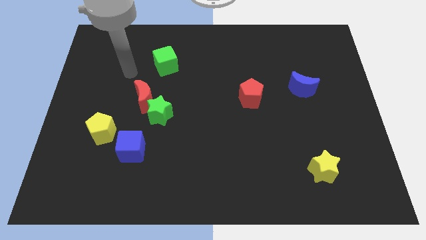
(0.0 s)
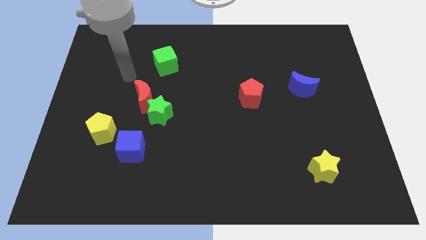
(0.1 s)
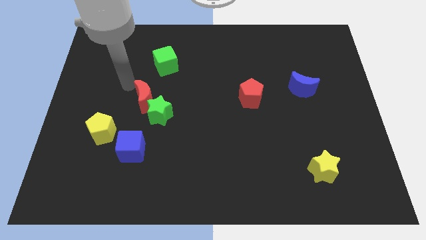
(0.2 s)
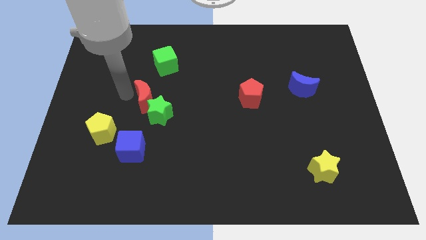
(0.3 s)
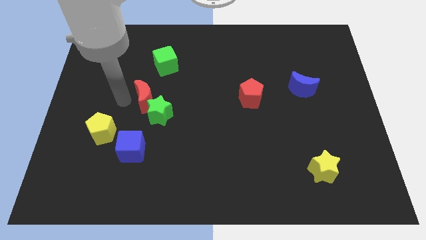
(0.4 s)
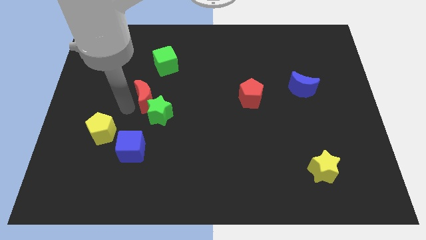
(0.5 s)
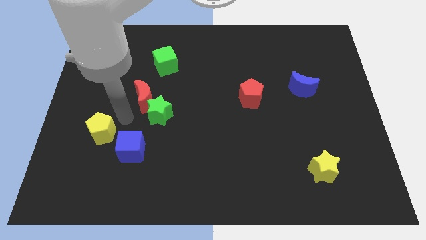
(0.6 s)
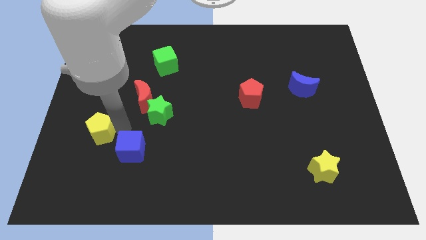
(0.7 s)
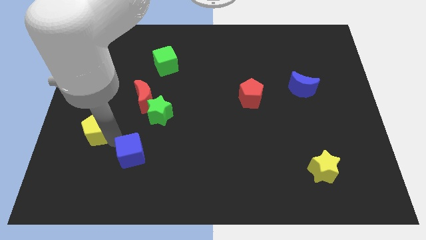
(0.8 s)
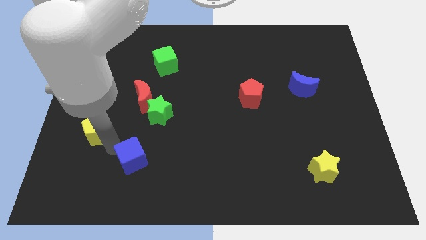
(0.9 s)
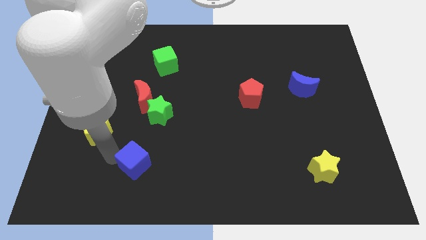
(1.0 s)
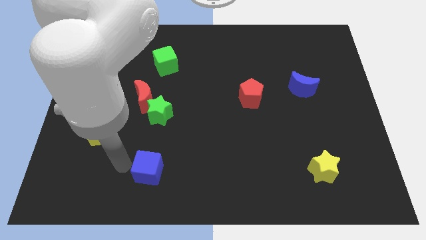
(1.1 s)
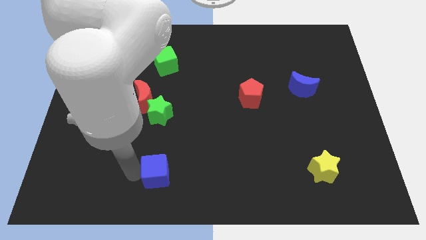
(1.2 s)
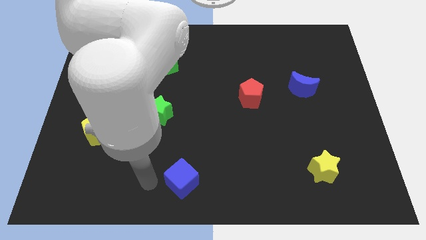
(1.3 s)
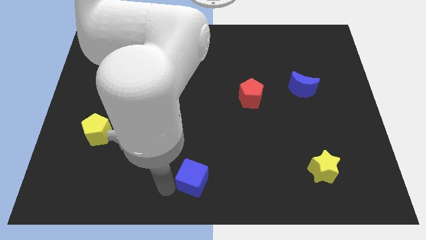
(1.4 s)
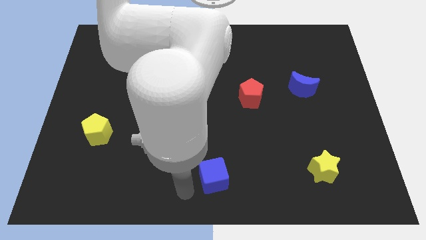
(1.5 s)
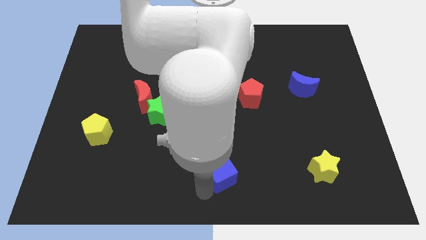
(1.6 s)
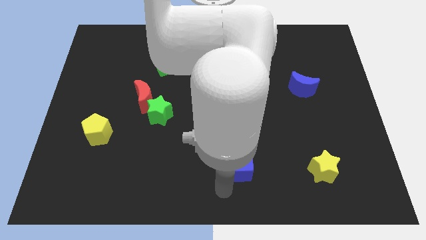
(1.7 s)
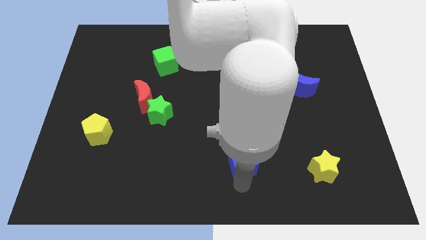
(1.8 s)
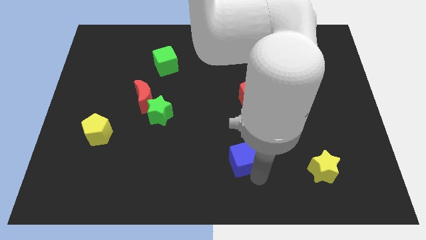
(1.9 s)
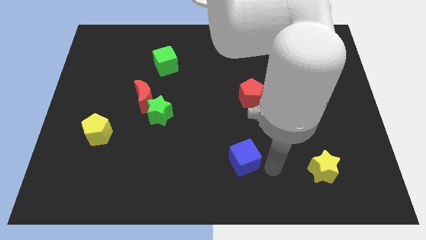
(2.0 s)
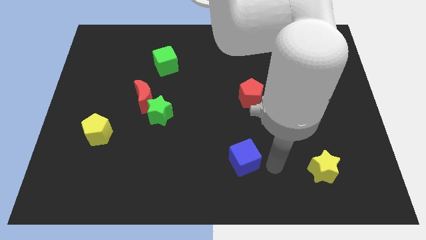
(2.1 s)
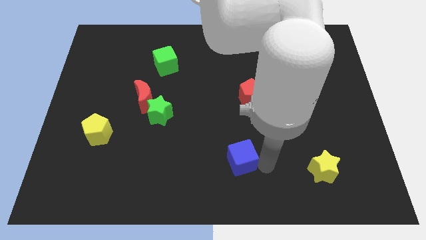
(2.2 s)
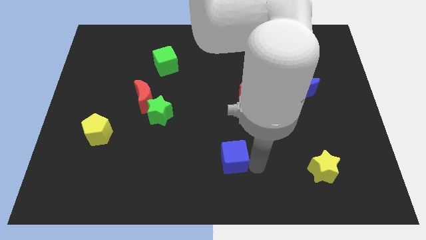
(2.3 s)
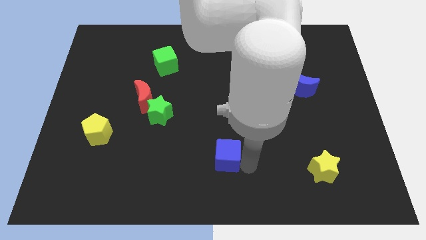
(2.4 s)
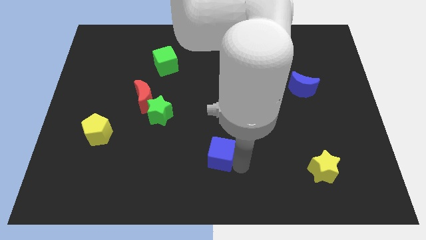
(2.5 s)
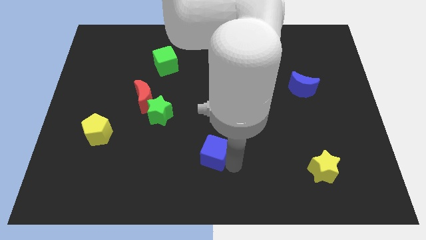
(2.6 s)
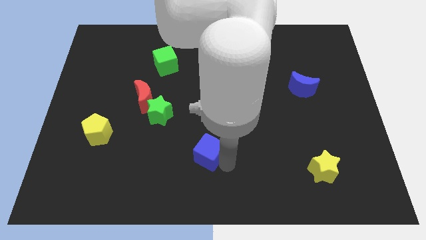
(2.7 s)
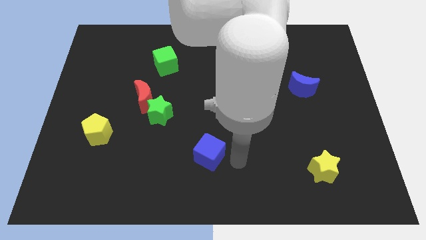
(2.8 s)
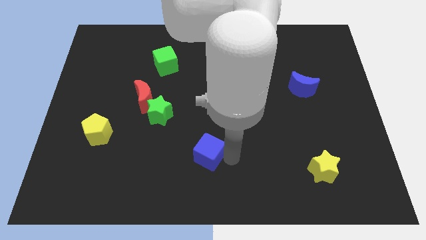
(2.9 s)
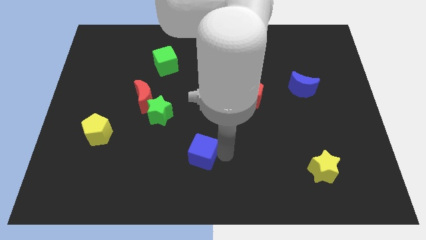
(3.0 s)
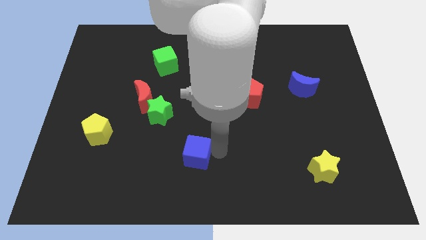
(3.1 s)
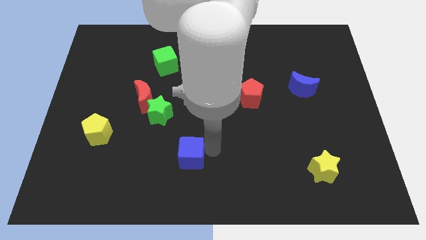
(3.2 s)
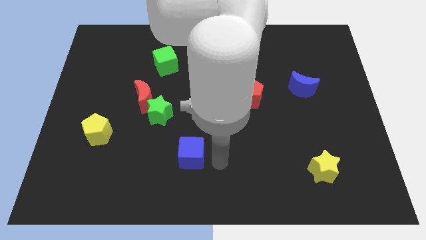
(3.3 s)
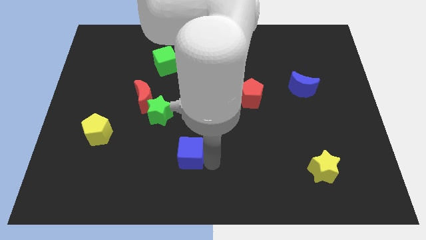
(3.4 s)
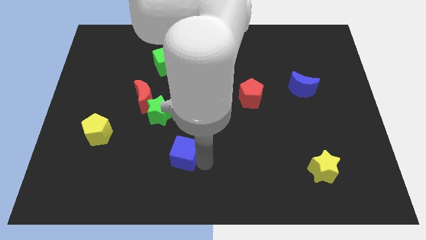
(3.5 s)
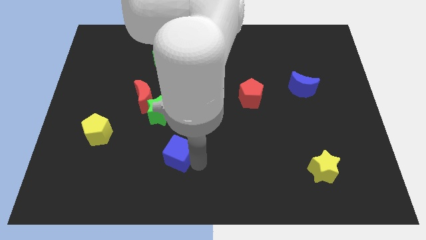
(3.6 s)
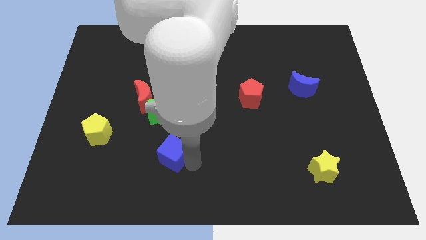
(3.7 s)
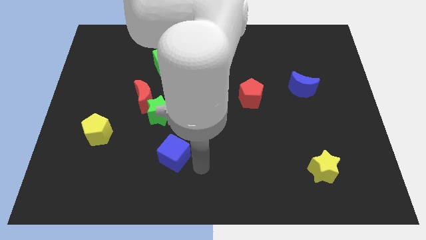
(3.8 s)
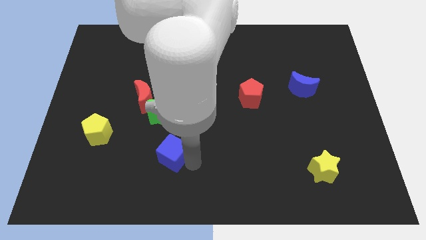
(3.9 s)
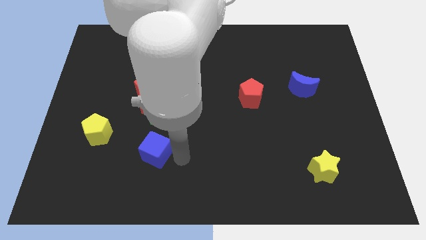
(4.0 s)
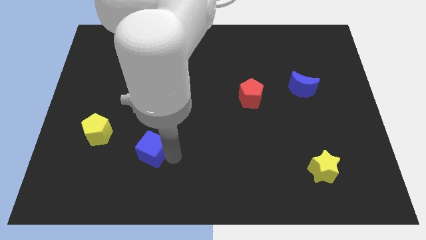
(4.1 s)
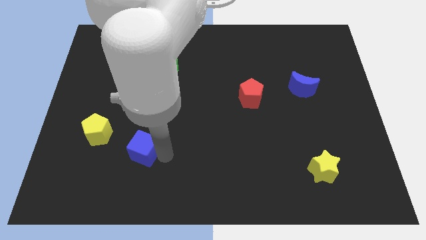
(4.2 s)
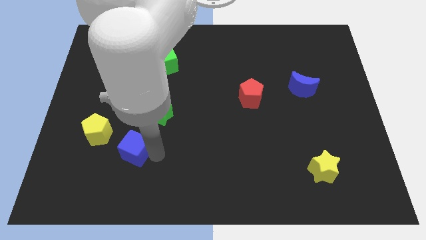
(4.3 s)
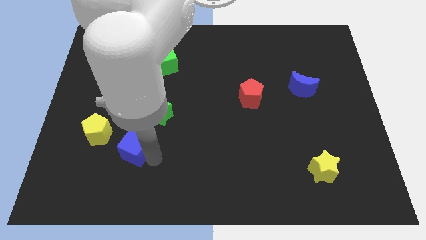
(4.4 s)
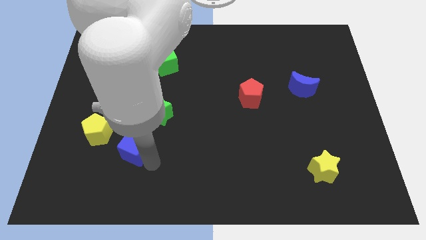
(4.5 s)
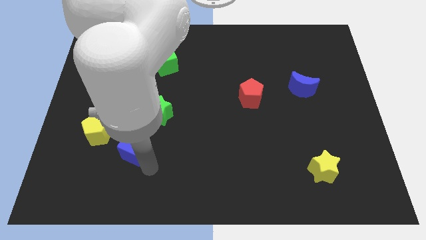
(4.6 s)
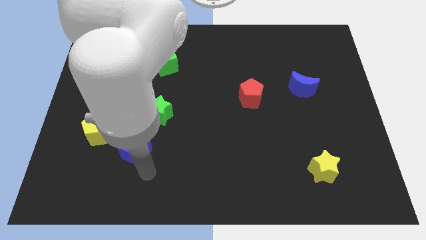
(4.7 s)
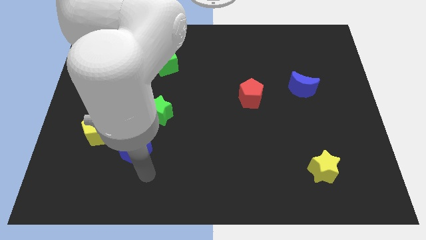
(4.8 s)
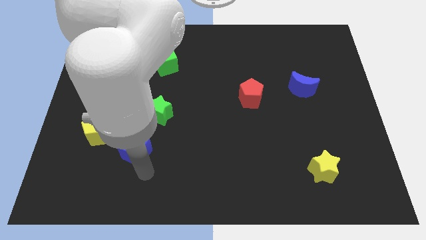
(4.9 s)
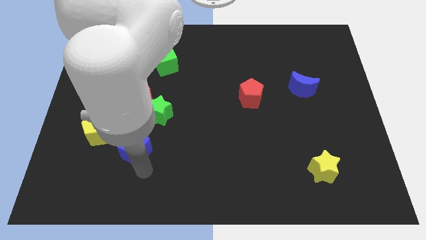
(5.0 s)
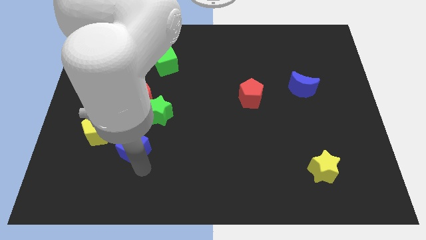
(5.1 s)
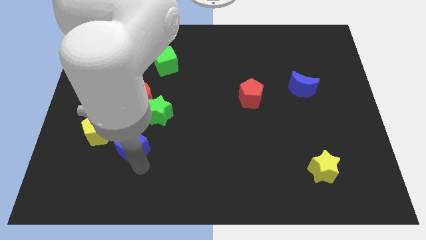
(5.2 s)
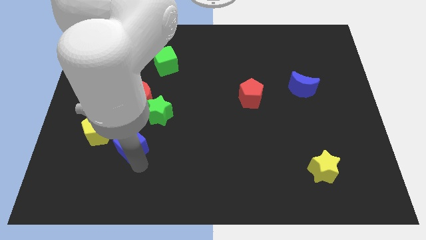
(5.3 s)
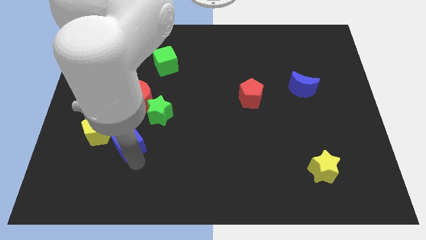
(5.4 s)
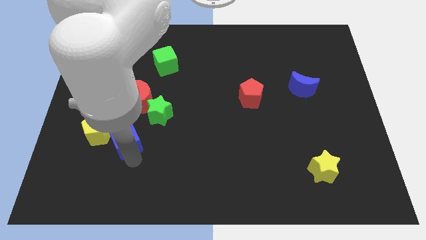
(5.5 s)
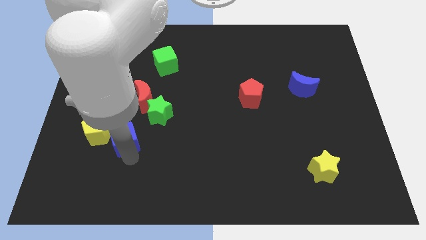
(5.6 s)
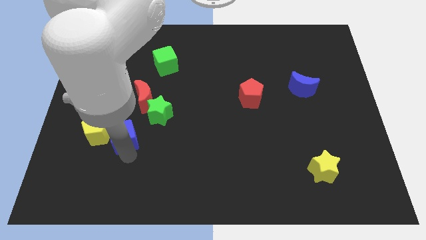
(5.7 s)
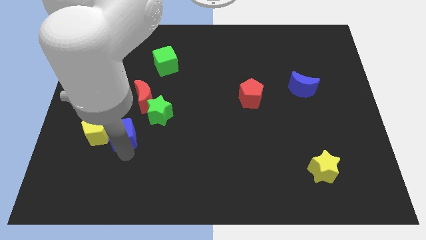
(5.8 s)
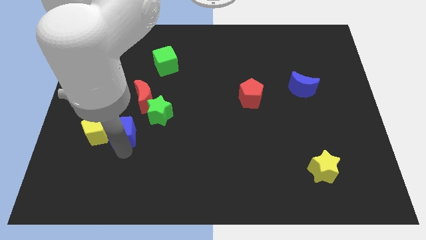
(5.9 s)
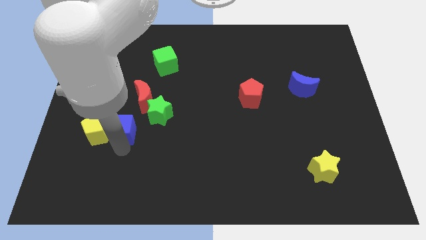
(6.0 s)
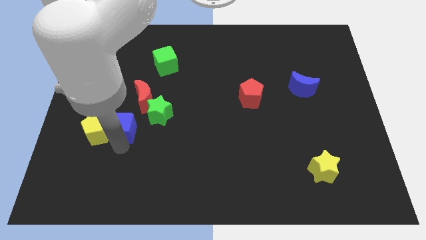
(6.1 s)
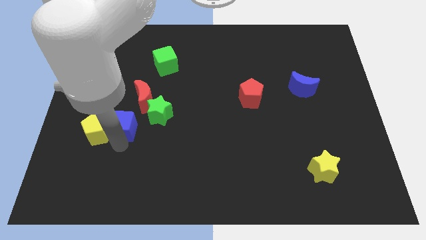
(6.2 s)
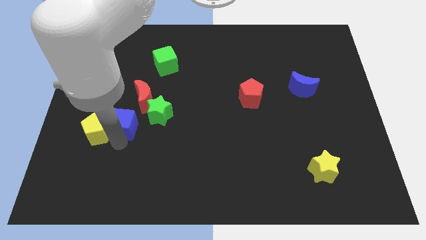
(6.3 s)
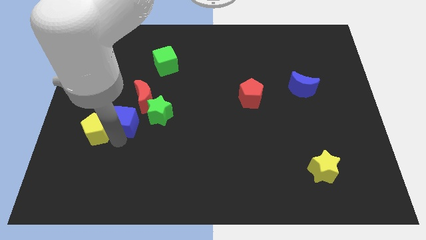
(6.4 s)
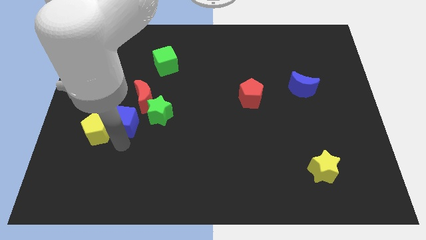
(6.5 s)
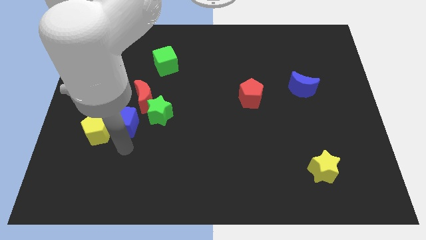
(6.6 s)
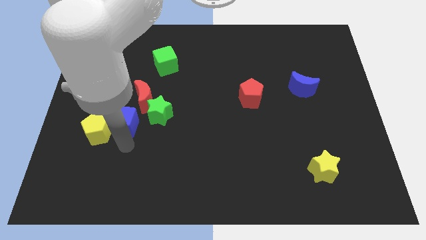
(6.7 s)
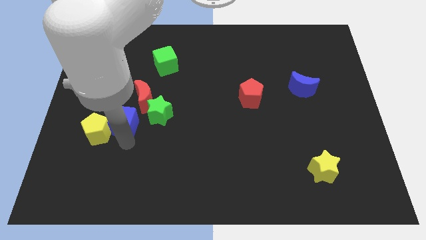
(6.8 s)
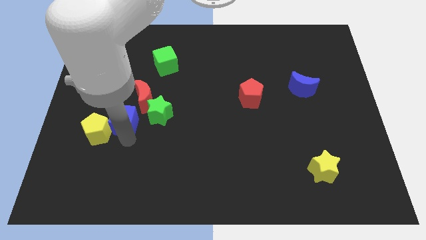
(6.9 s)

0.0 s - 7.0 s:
push the blue cube up a little bit

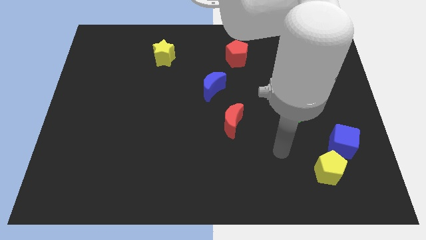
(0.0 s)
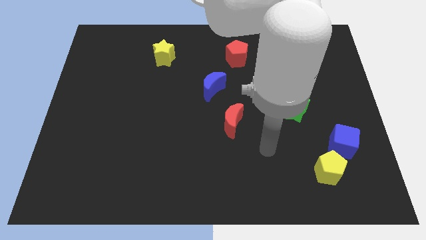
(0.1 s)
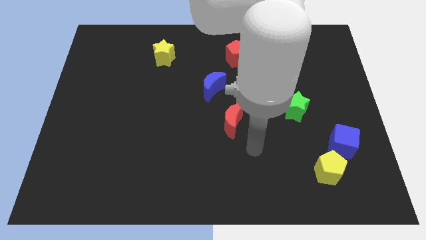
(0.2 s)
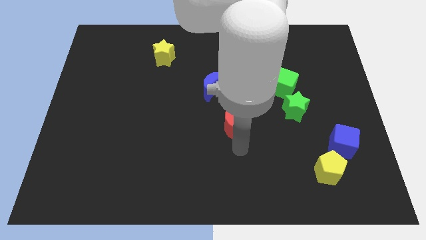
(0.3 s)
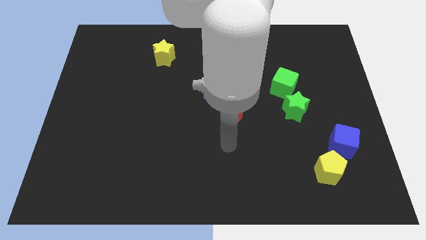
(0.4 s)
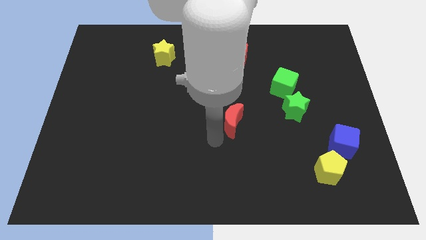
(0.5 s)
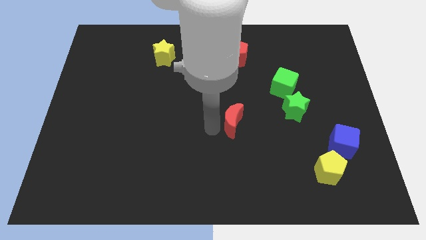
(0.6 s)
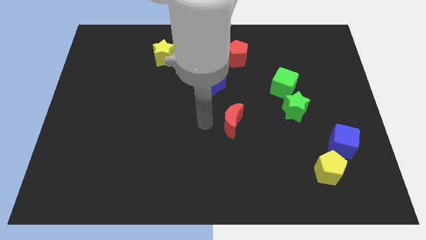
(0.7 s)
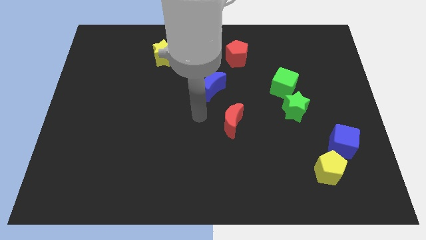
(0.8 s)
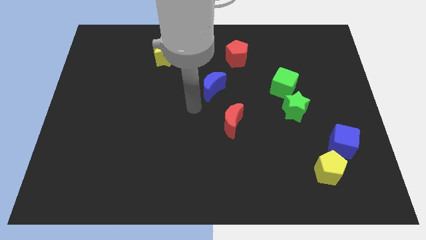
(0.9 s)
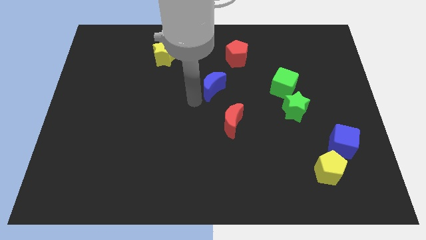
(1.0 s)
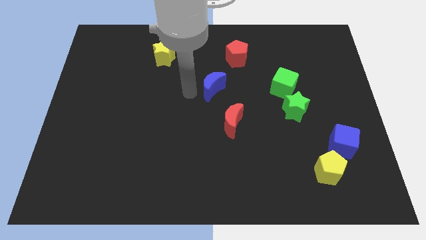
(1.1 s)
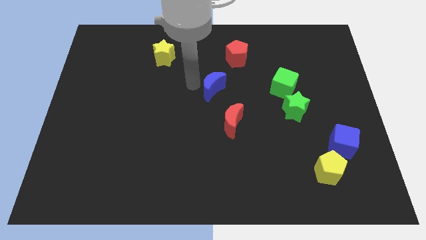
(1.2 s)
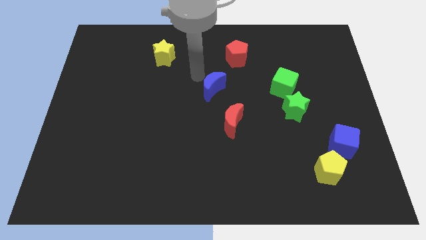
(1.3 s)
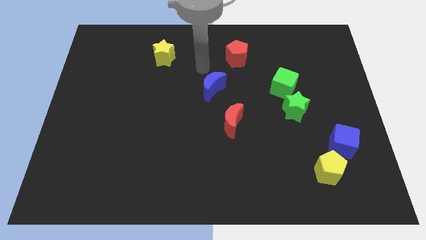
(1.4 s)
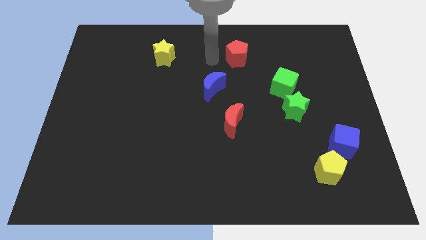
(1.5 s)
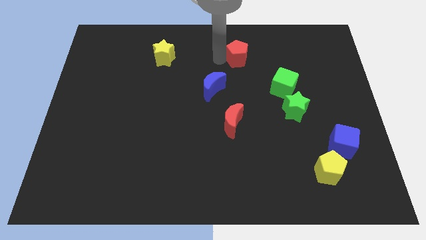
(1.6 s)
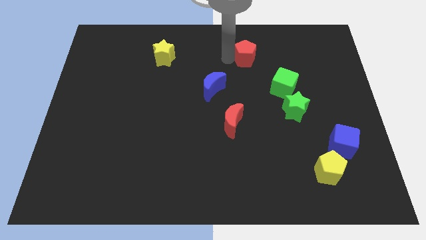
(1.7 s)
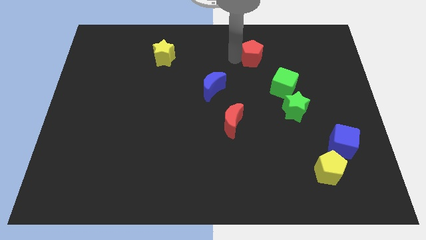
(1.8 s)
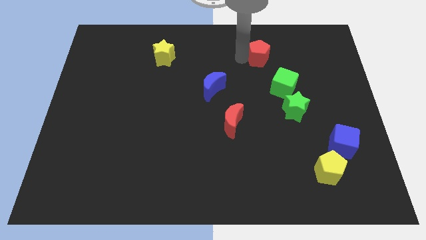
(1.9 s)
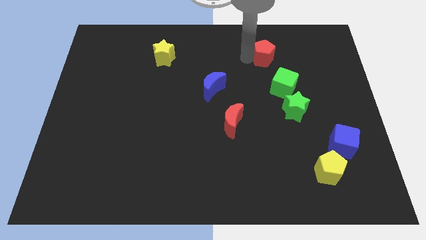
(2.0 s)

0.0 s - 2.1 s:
slide the red pentagon right a little bit
